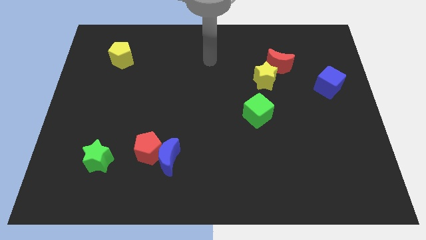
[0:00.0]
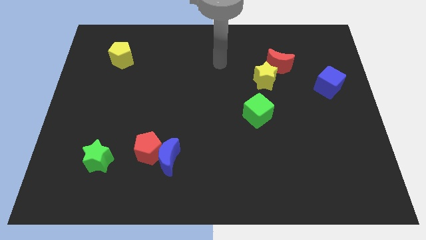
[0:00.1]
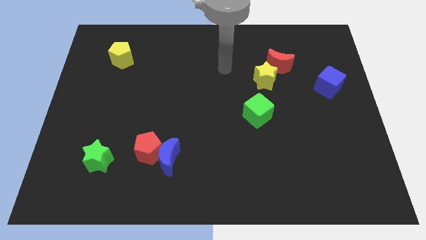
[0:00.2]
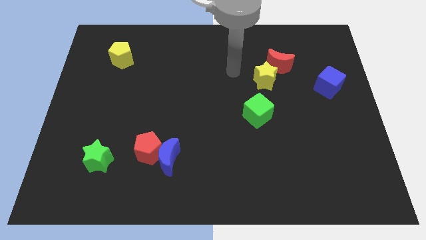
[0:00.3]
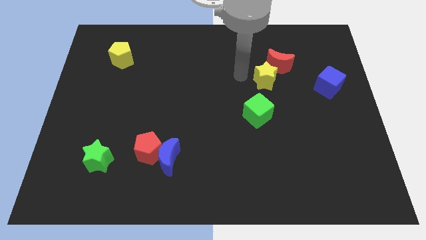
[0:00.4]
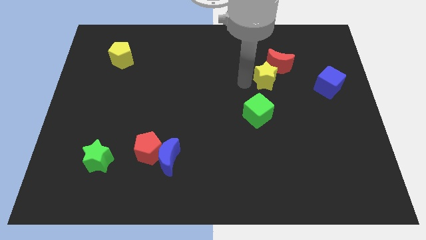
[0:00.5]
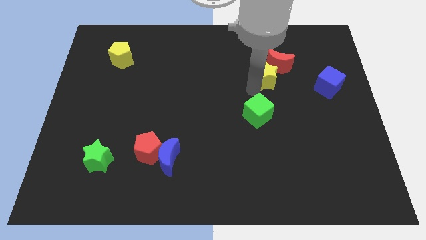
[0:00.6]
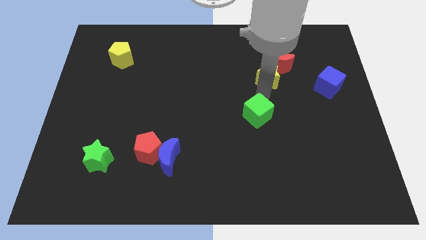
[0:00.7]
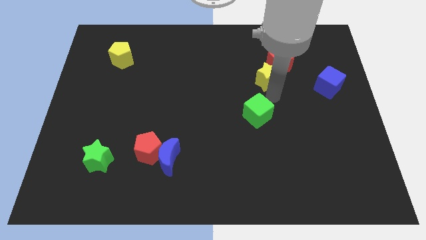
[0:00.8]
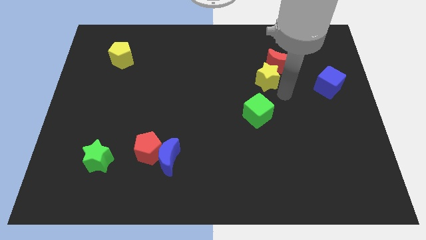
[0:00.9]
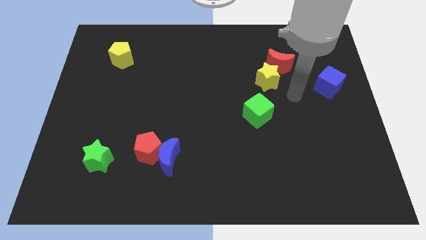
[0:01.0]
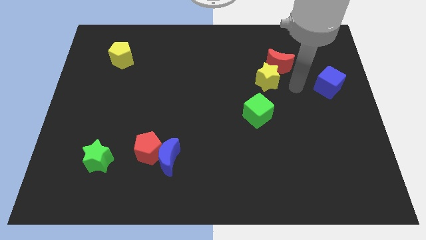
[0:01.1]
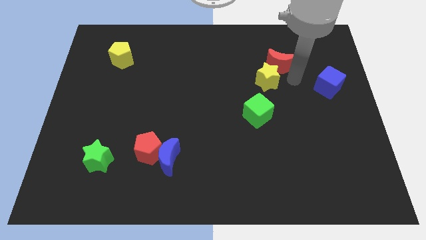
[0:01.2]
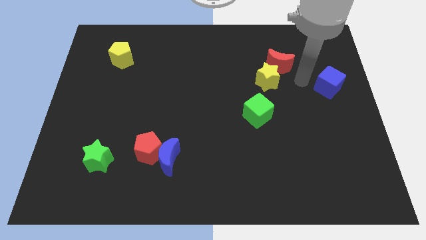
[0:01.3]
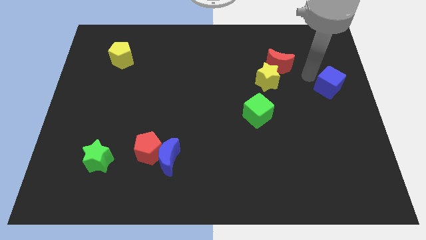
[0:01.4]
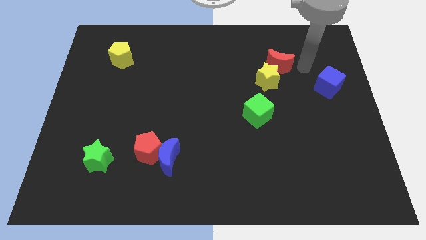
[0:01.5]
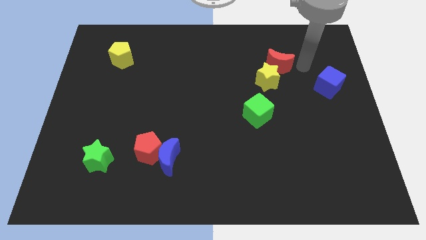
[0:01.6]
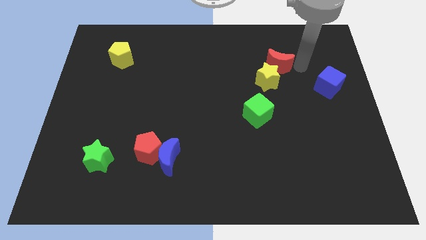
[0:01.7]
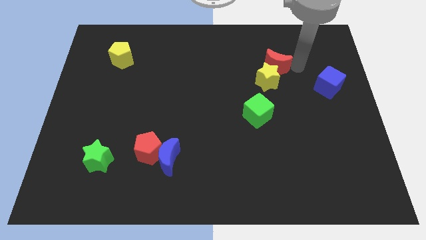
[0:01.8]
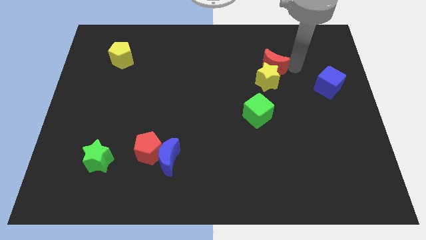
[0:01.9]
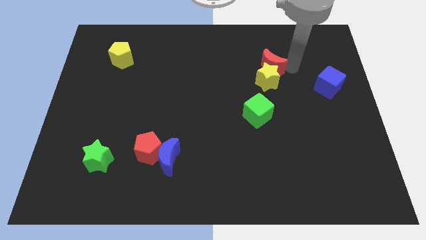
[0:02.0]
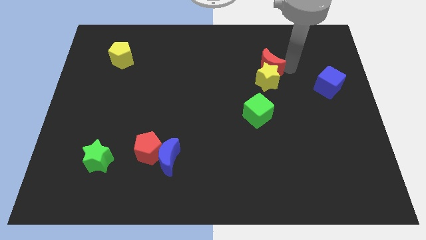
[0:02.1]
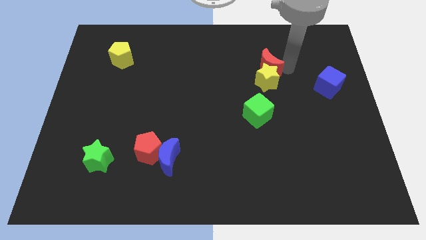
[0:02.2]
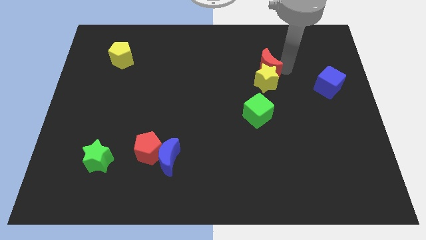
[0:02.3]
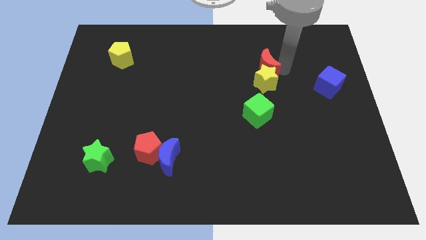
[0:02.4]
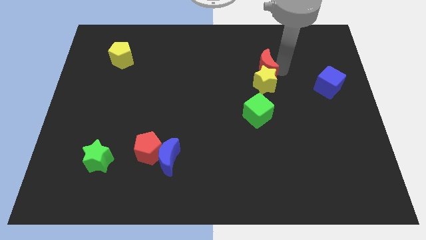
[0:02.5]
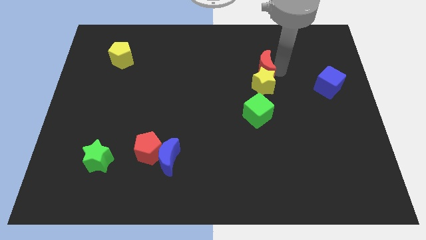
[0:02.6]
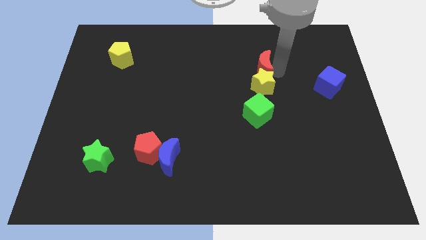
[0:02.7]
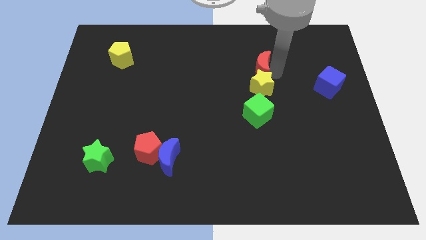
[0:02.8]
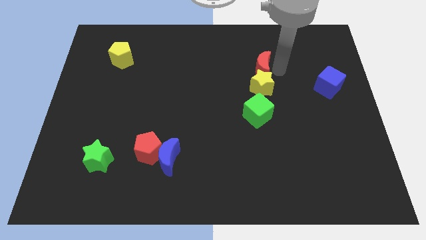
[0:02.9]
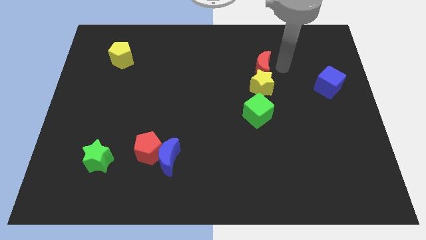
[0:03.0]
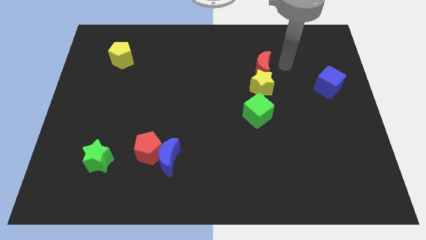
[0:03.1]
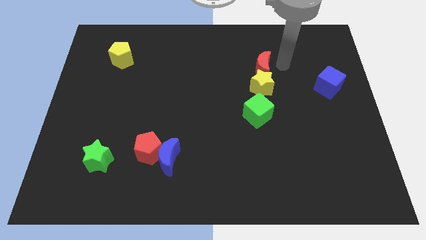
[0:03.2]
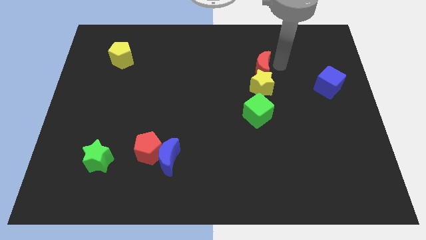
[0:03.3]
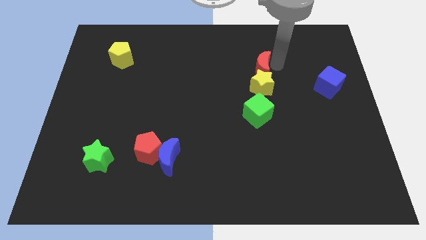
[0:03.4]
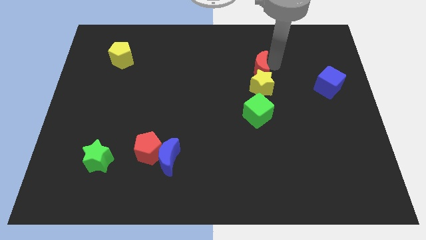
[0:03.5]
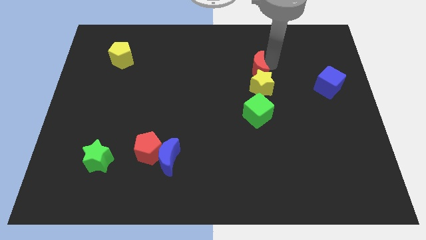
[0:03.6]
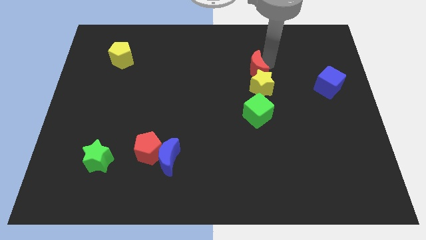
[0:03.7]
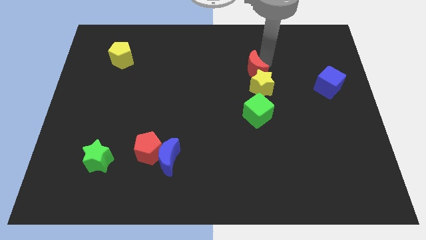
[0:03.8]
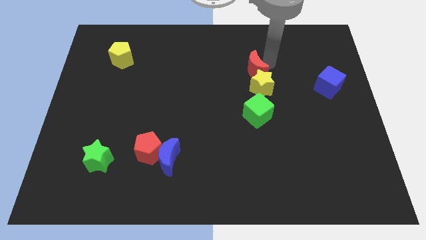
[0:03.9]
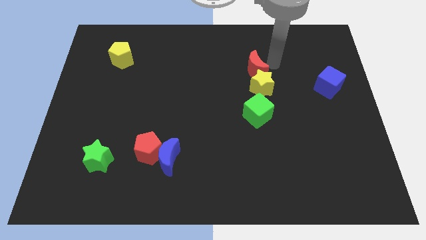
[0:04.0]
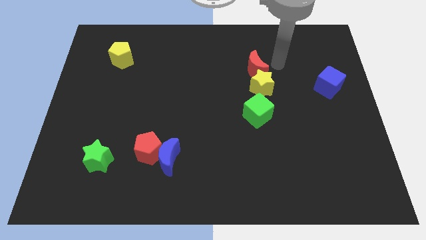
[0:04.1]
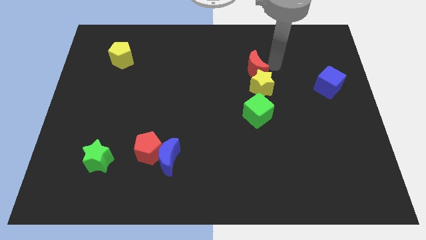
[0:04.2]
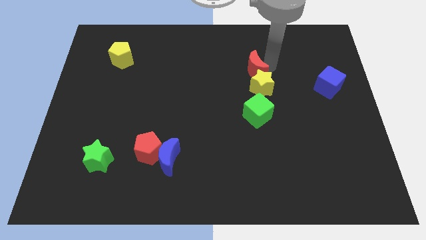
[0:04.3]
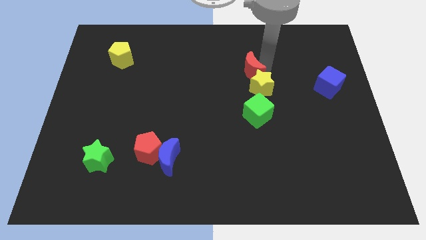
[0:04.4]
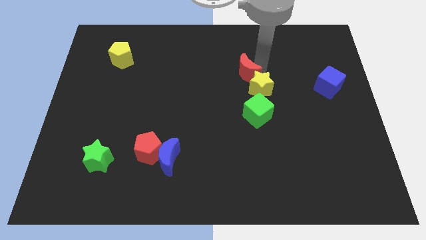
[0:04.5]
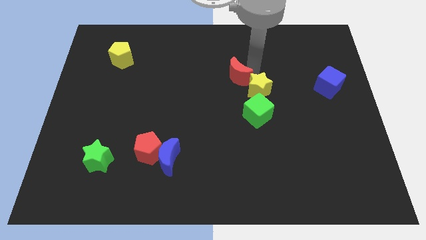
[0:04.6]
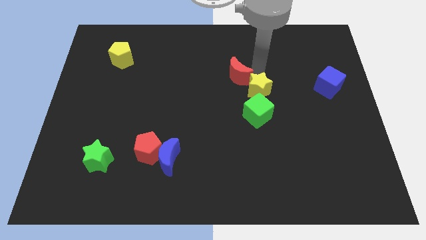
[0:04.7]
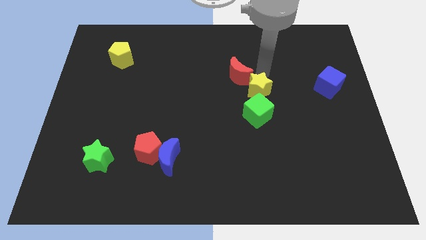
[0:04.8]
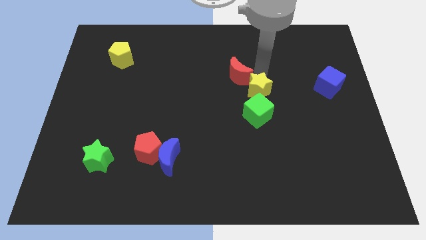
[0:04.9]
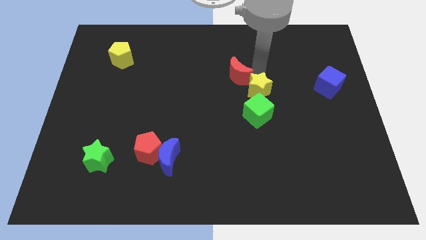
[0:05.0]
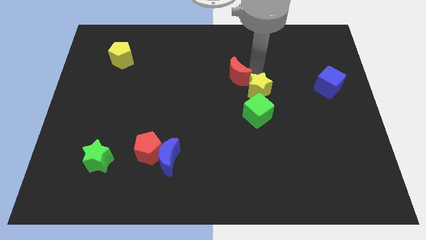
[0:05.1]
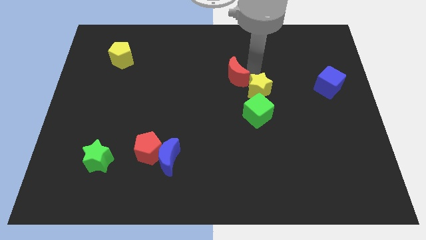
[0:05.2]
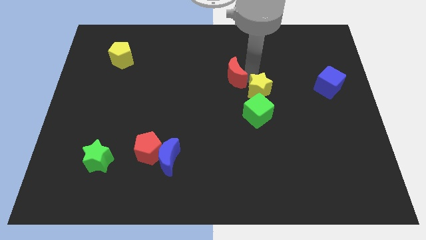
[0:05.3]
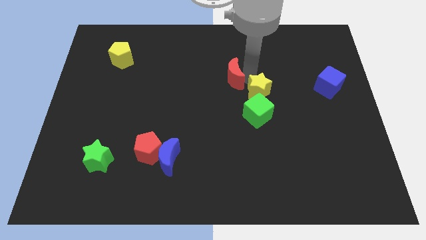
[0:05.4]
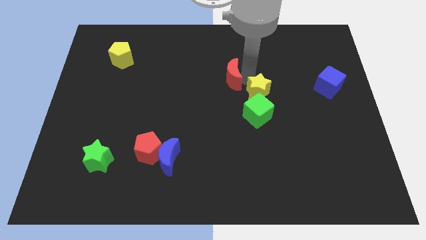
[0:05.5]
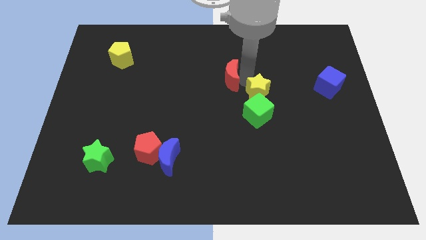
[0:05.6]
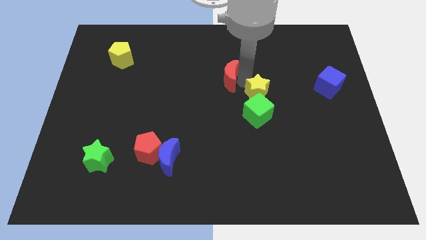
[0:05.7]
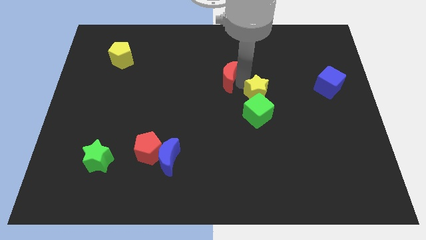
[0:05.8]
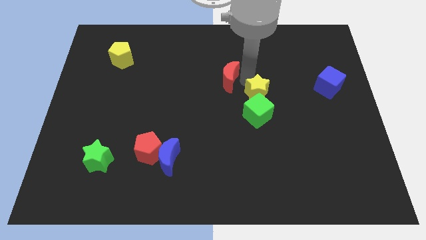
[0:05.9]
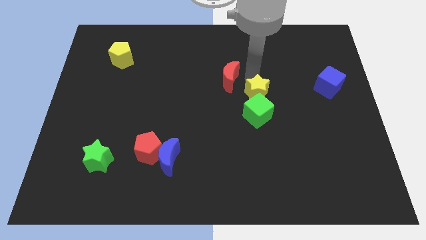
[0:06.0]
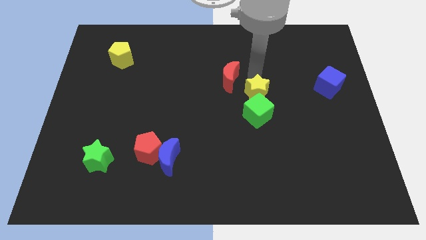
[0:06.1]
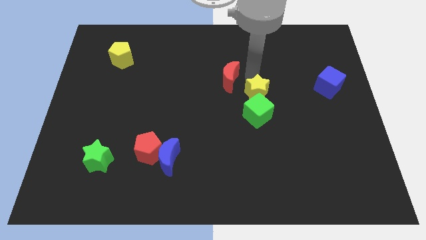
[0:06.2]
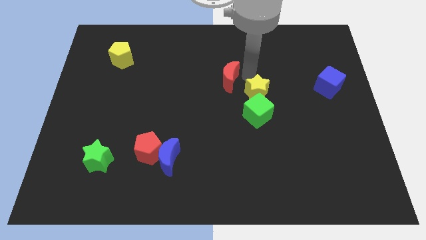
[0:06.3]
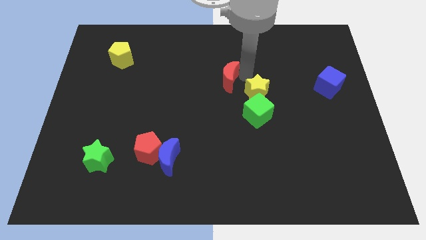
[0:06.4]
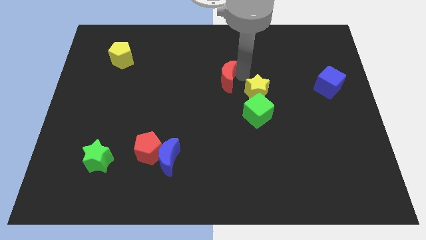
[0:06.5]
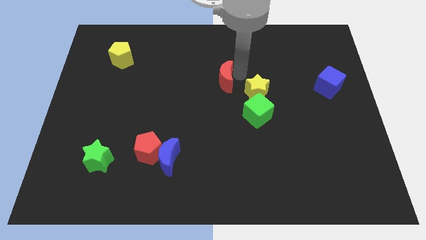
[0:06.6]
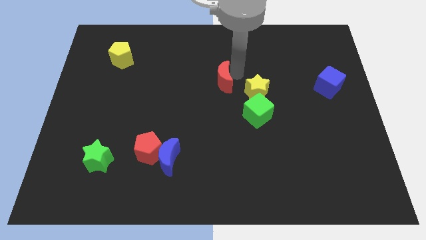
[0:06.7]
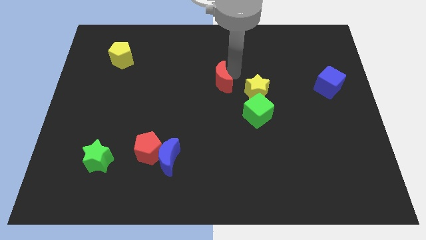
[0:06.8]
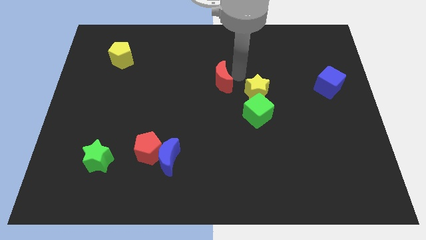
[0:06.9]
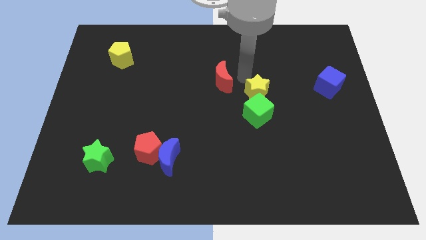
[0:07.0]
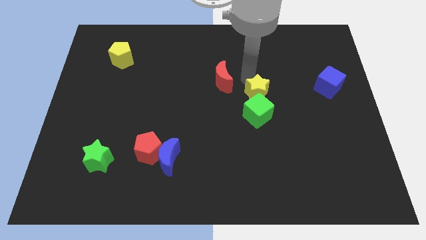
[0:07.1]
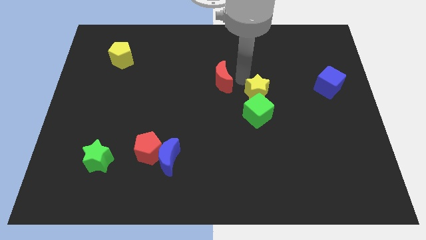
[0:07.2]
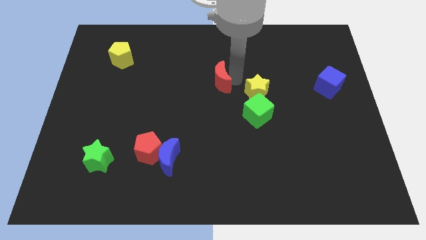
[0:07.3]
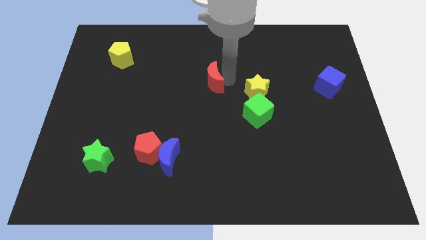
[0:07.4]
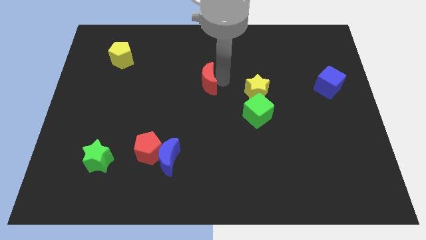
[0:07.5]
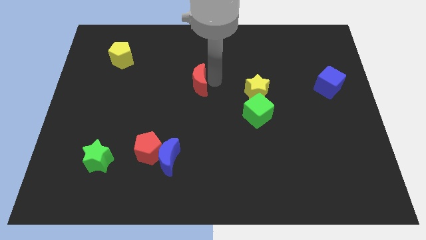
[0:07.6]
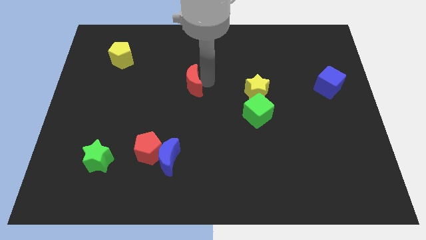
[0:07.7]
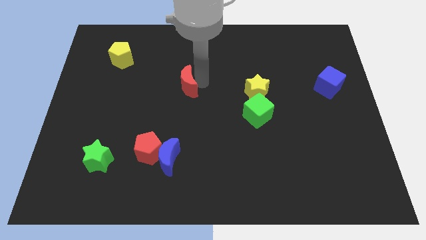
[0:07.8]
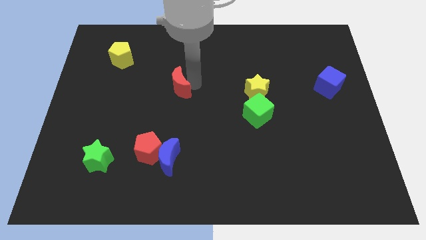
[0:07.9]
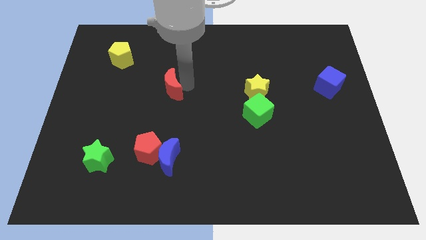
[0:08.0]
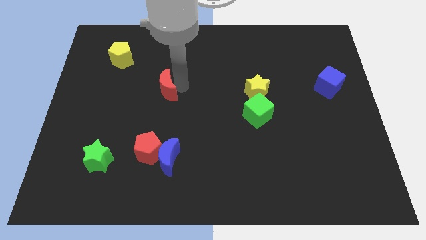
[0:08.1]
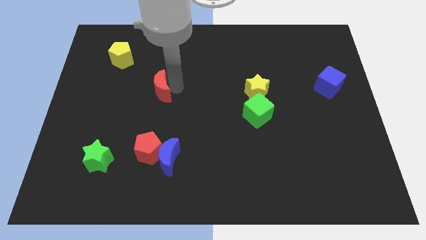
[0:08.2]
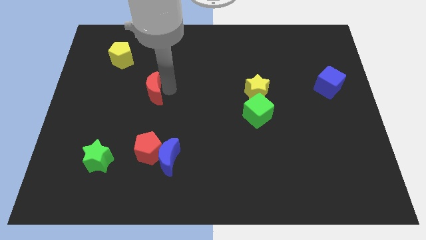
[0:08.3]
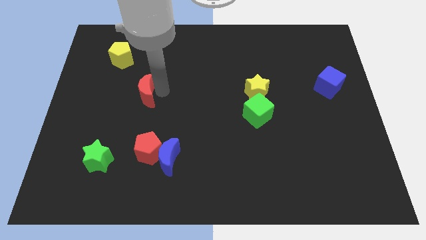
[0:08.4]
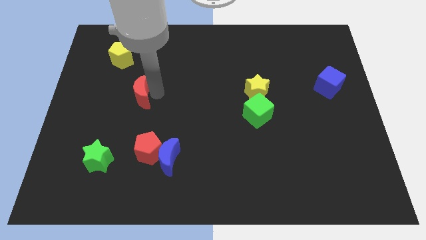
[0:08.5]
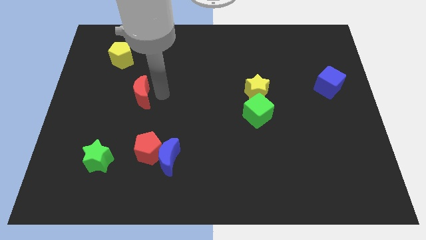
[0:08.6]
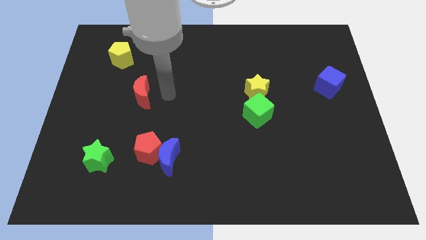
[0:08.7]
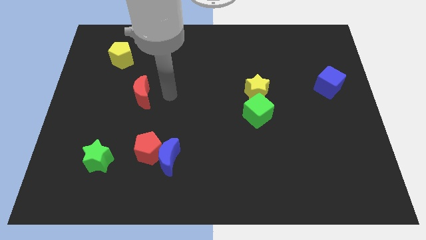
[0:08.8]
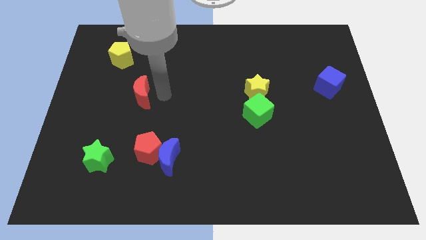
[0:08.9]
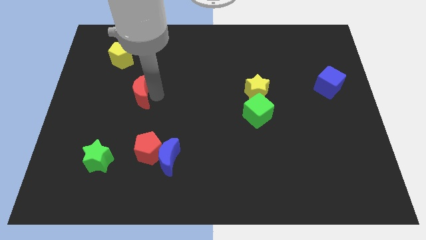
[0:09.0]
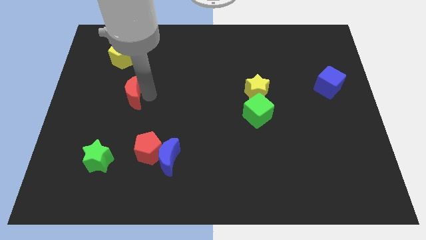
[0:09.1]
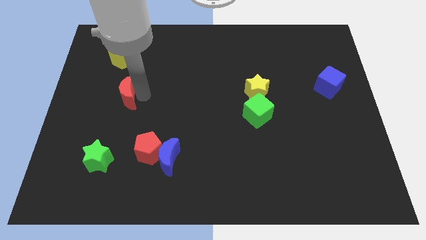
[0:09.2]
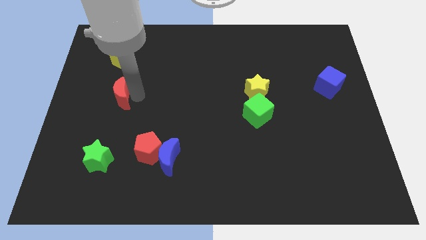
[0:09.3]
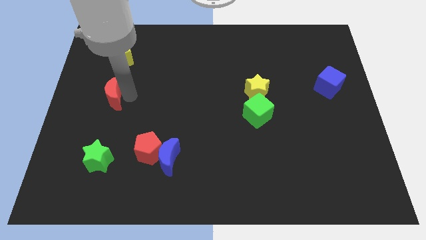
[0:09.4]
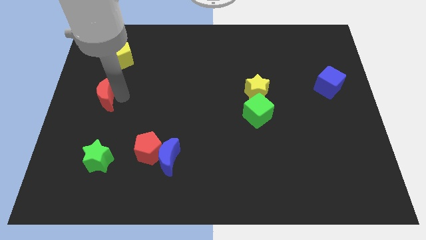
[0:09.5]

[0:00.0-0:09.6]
move the red moon to the left side
